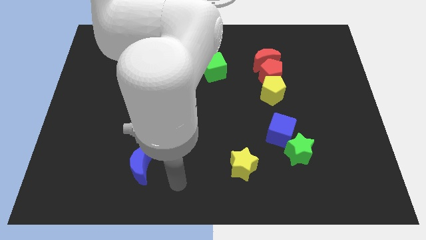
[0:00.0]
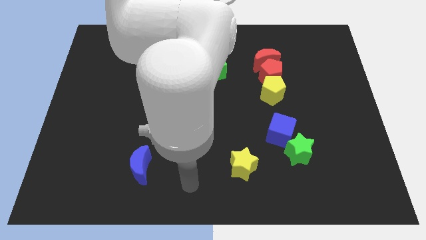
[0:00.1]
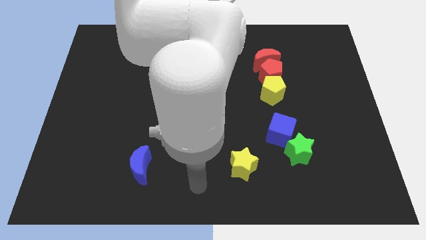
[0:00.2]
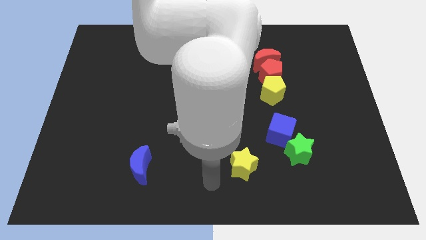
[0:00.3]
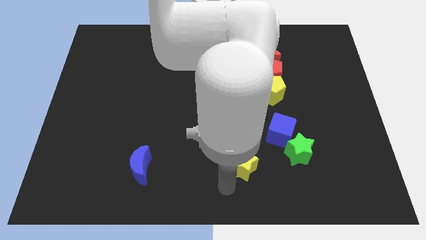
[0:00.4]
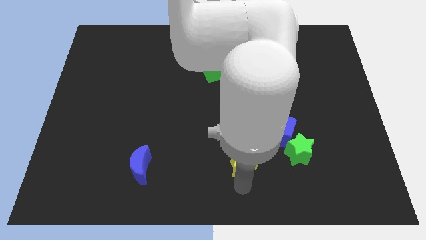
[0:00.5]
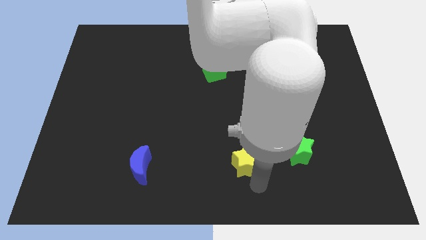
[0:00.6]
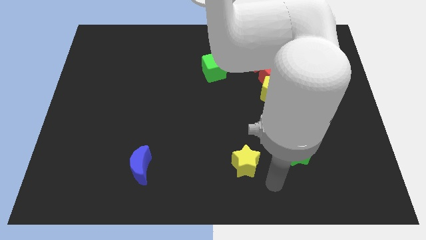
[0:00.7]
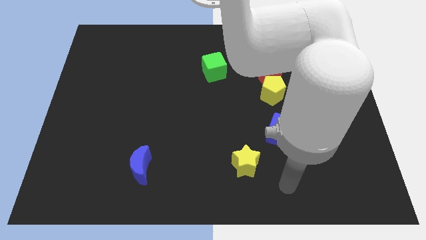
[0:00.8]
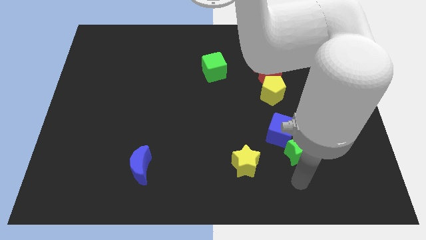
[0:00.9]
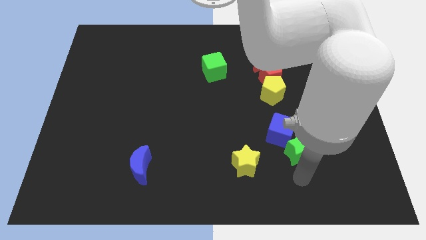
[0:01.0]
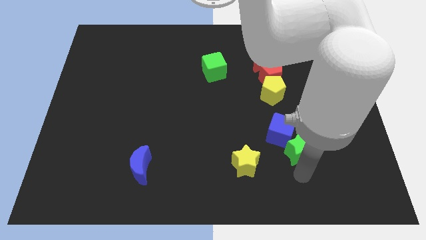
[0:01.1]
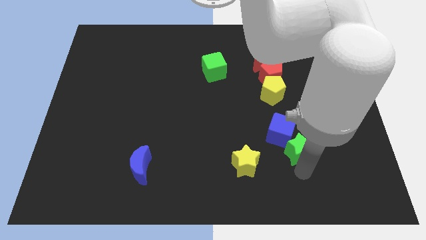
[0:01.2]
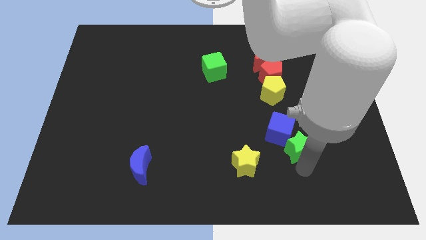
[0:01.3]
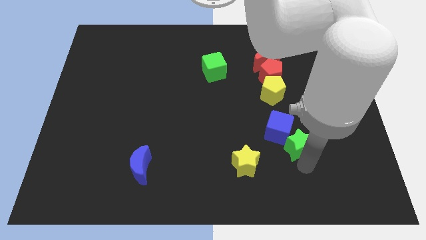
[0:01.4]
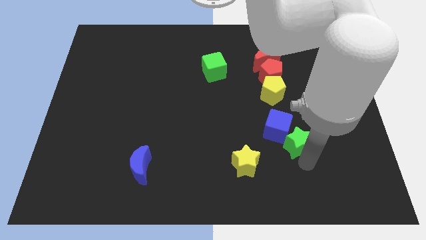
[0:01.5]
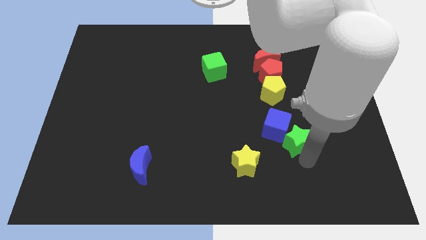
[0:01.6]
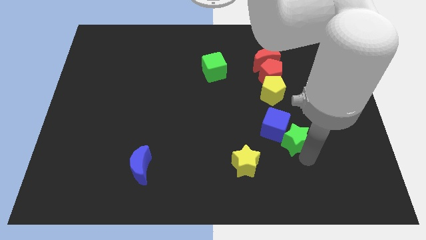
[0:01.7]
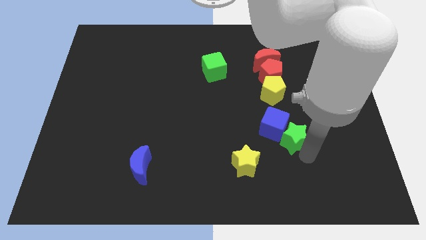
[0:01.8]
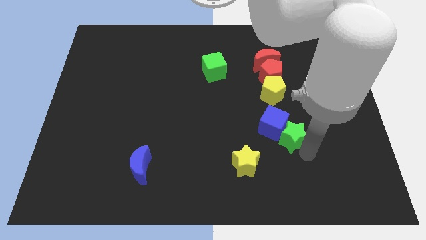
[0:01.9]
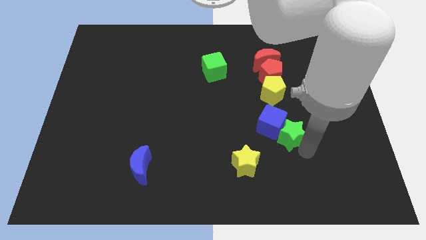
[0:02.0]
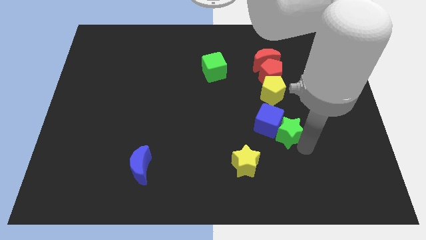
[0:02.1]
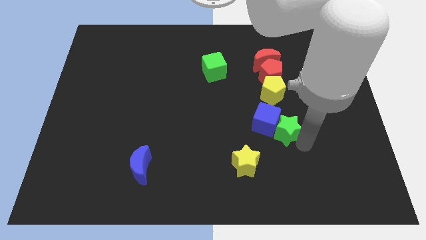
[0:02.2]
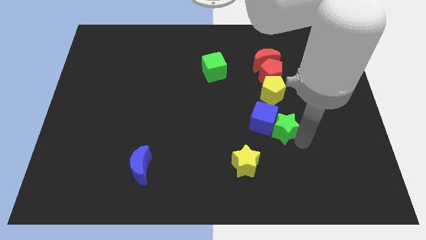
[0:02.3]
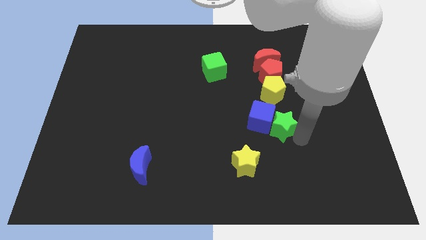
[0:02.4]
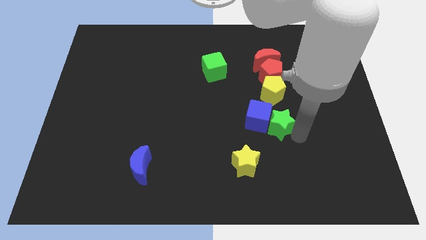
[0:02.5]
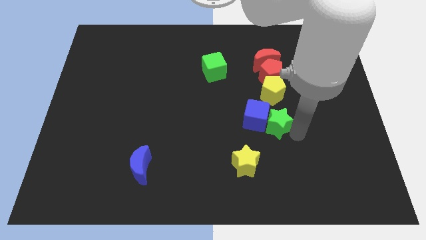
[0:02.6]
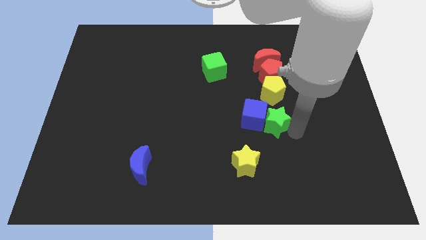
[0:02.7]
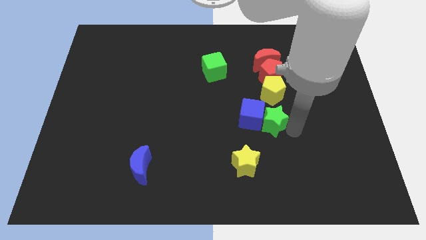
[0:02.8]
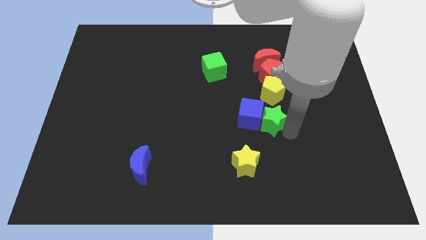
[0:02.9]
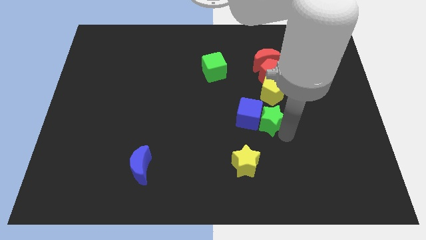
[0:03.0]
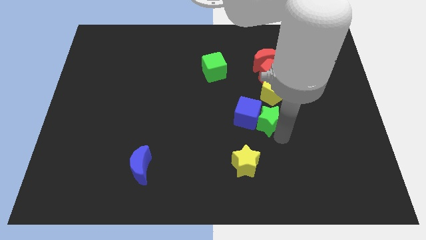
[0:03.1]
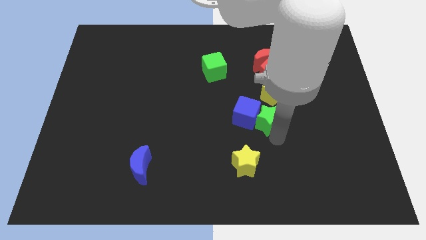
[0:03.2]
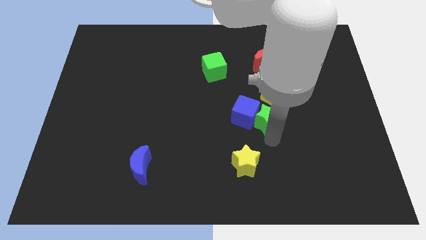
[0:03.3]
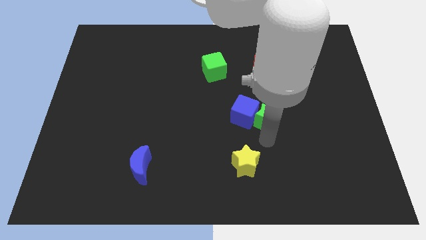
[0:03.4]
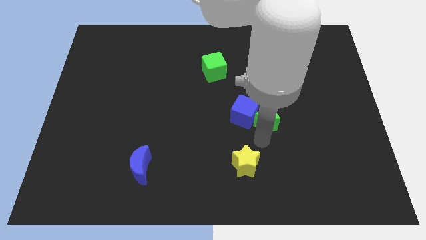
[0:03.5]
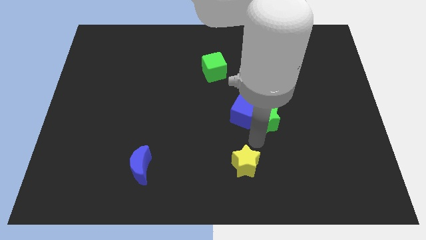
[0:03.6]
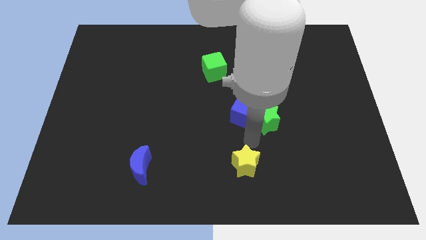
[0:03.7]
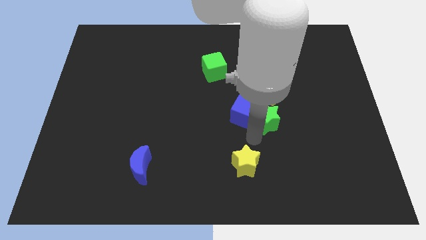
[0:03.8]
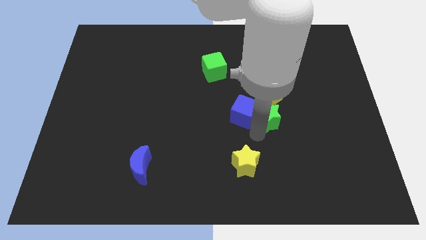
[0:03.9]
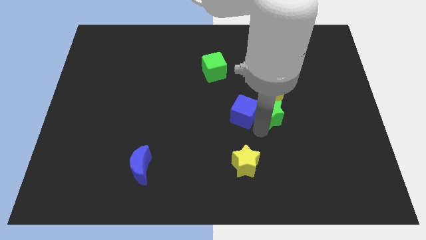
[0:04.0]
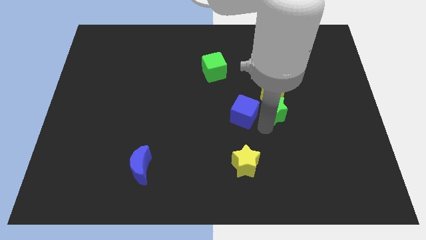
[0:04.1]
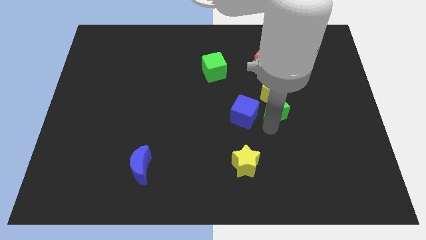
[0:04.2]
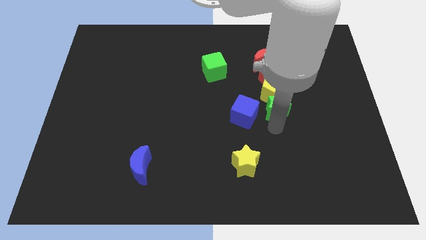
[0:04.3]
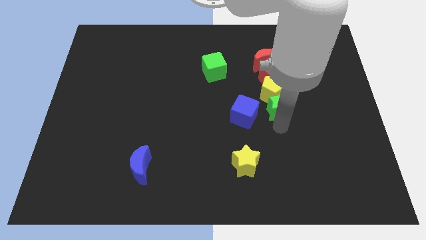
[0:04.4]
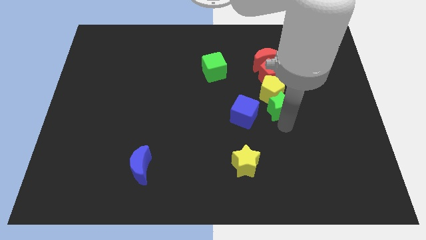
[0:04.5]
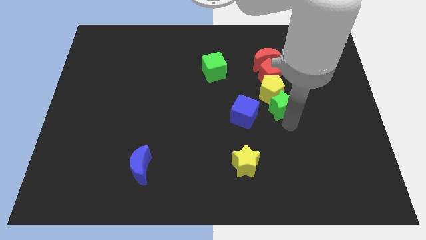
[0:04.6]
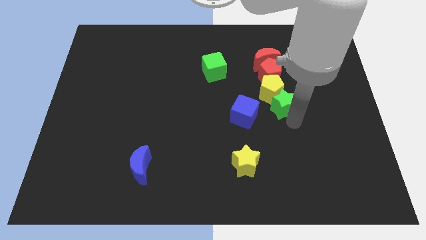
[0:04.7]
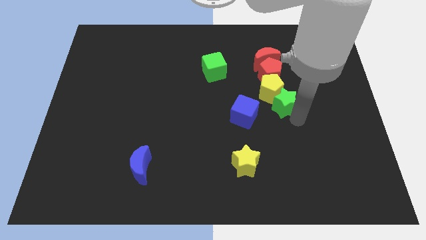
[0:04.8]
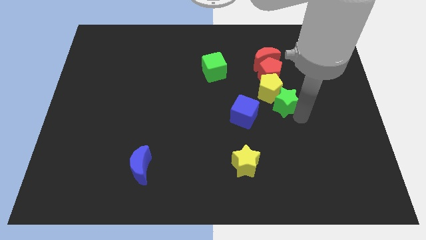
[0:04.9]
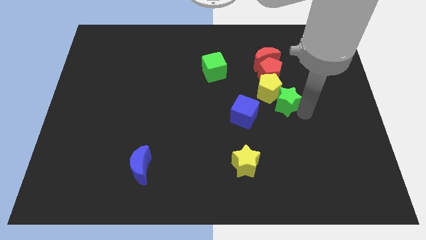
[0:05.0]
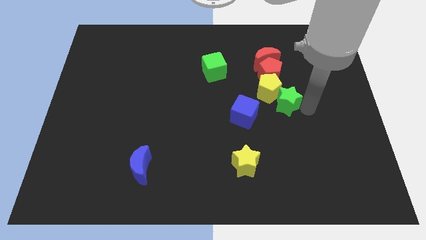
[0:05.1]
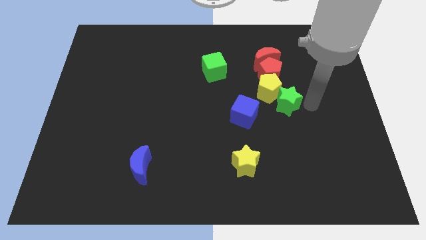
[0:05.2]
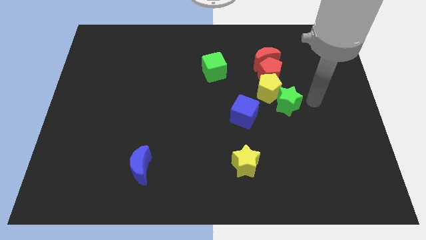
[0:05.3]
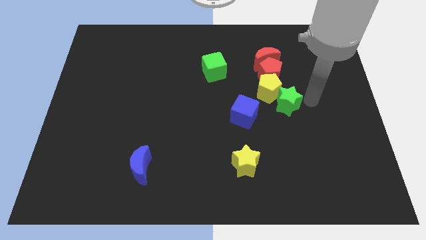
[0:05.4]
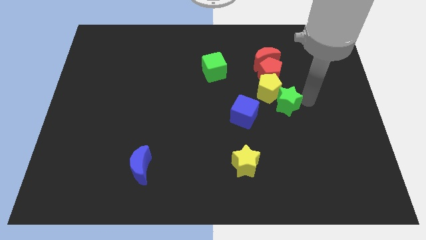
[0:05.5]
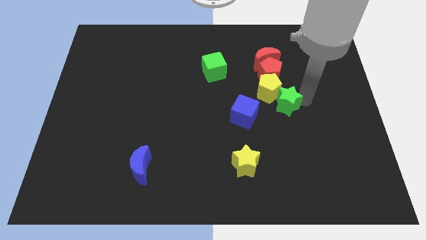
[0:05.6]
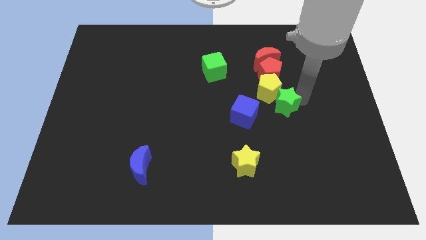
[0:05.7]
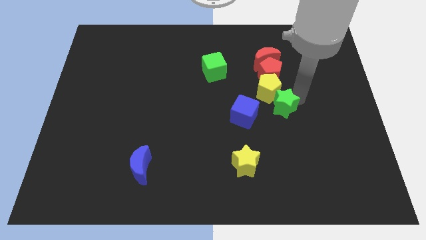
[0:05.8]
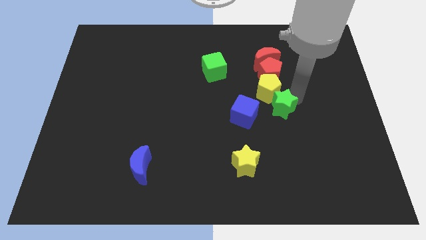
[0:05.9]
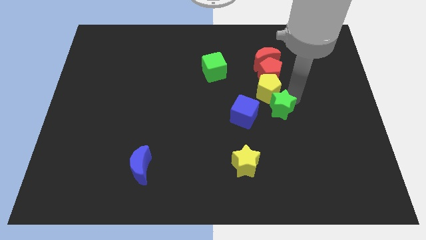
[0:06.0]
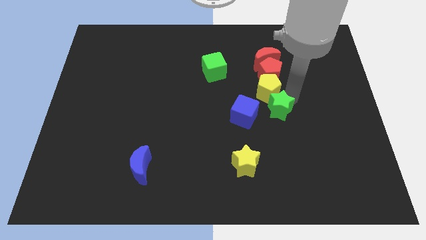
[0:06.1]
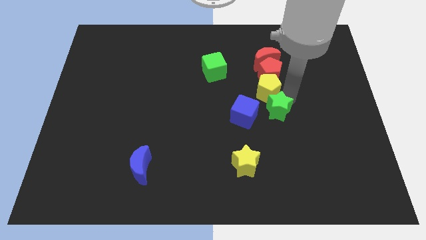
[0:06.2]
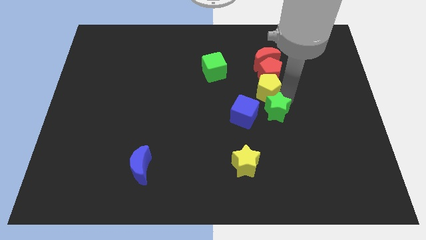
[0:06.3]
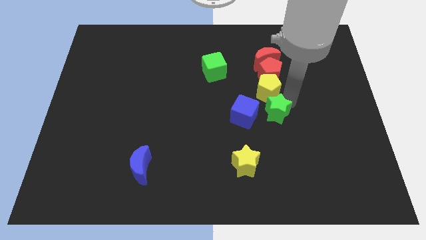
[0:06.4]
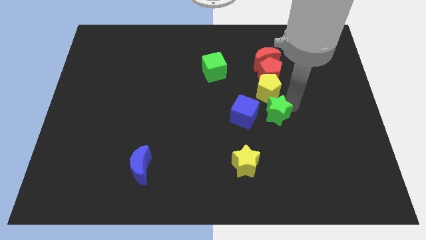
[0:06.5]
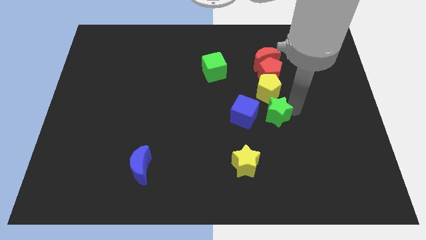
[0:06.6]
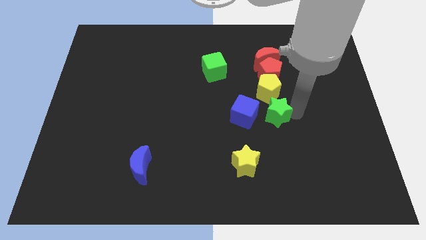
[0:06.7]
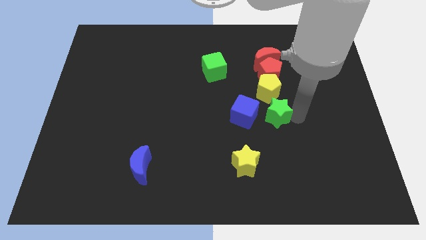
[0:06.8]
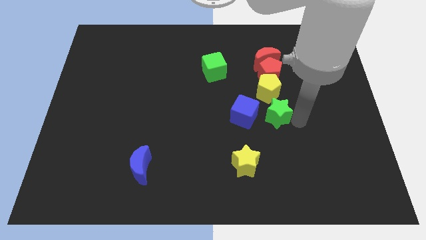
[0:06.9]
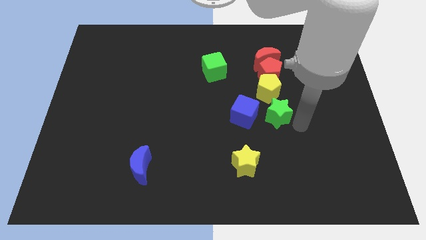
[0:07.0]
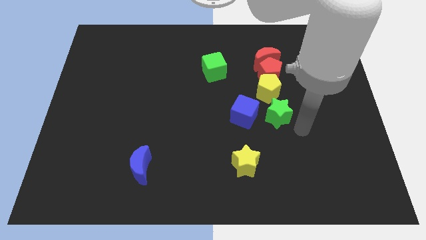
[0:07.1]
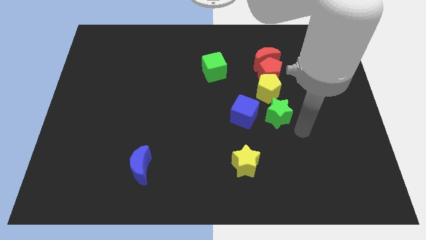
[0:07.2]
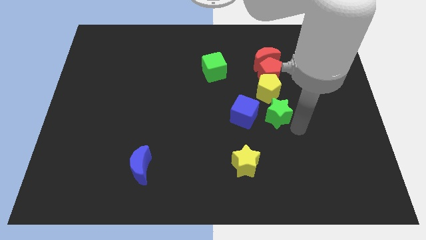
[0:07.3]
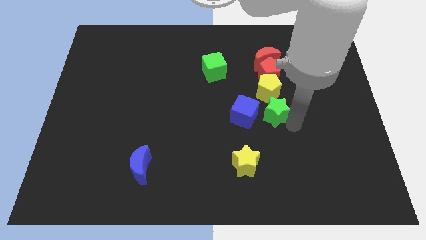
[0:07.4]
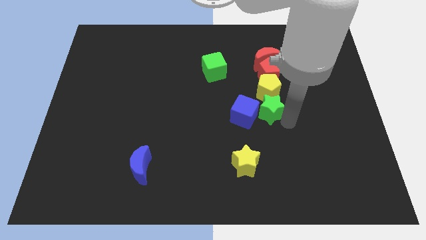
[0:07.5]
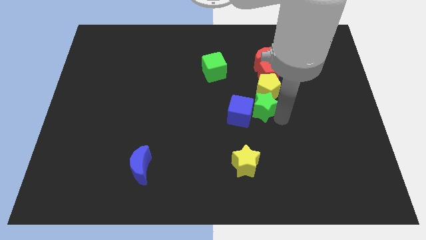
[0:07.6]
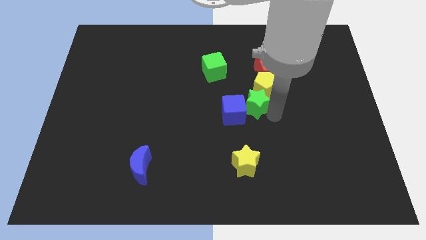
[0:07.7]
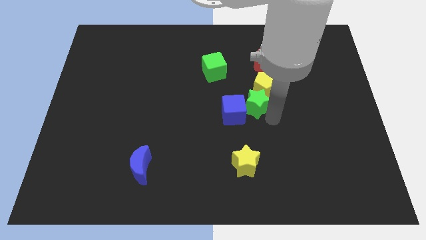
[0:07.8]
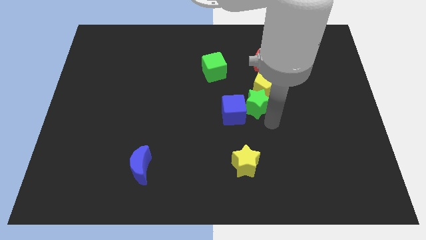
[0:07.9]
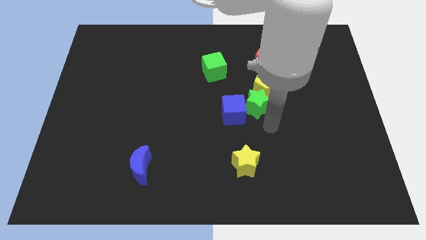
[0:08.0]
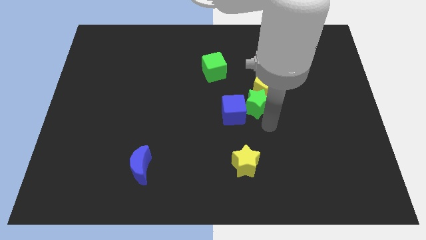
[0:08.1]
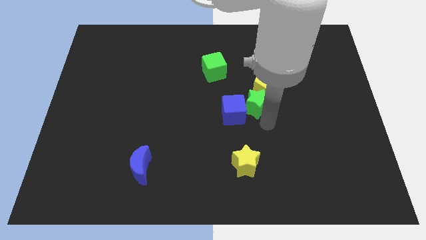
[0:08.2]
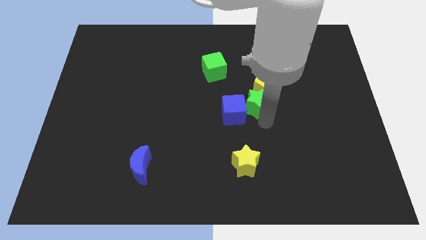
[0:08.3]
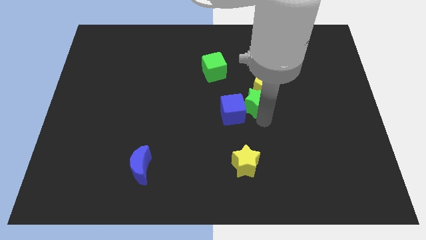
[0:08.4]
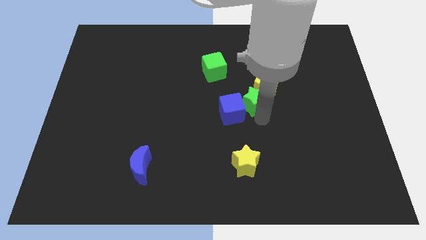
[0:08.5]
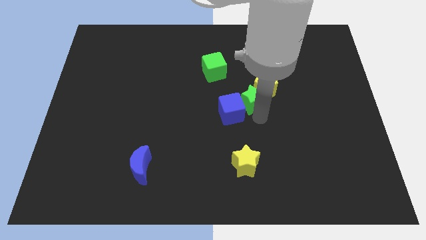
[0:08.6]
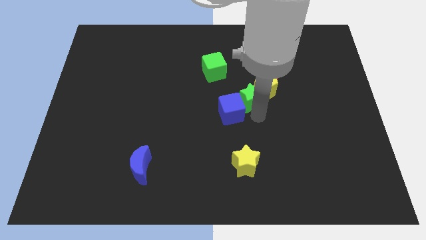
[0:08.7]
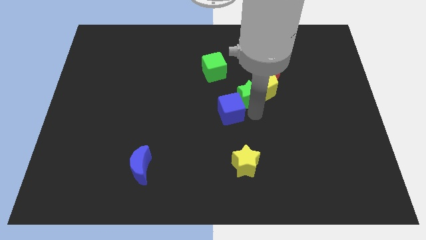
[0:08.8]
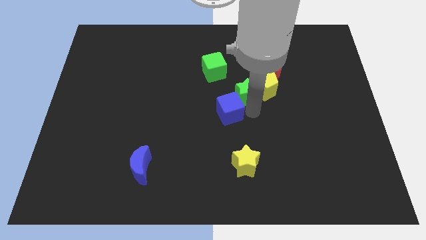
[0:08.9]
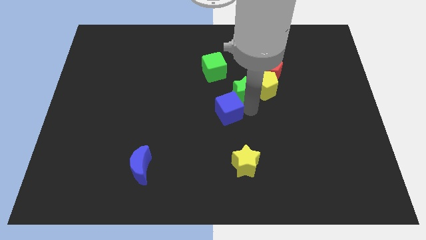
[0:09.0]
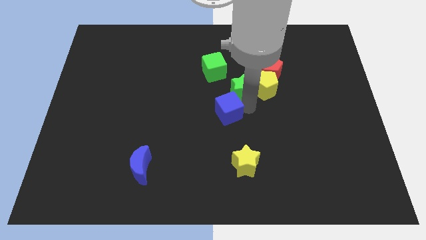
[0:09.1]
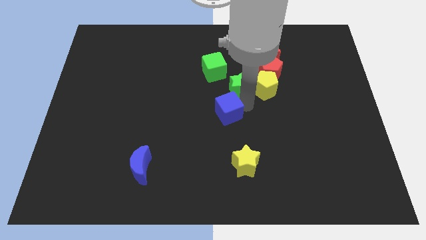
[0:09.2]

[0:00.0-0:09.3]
move the green star diagonally down and to the left of the red moon
